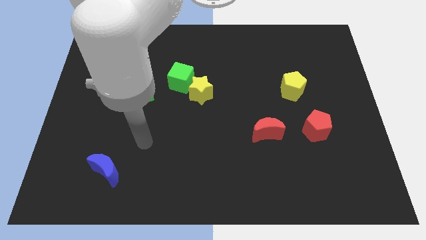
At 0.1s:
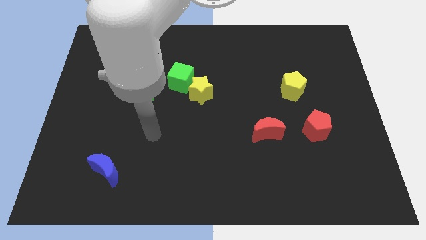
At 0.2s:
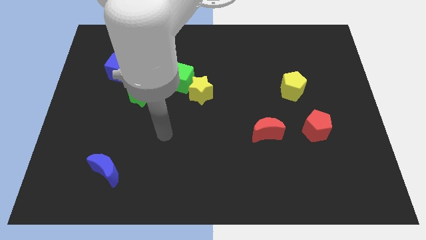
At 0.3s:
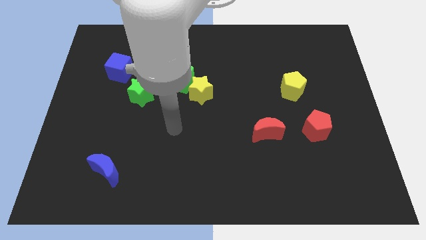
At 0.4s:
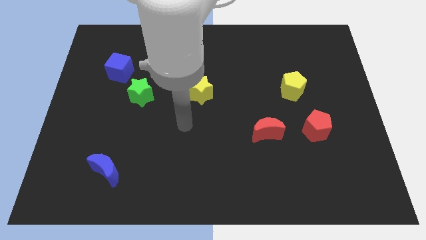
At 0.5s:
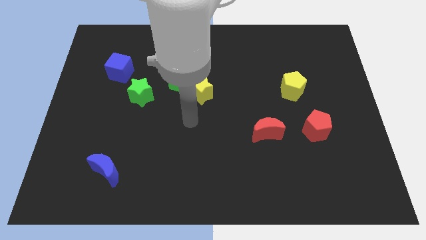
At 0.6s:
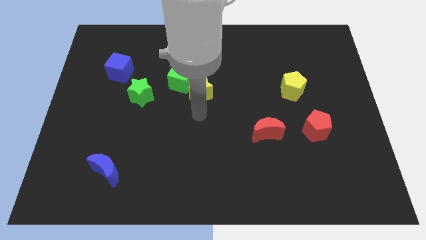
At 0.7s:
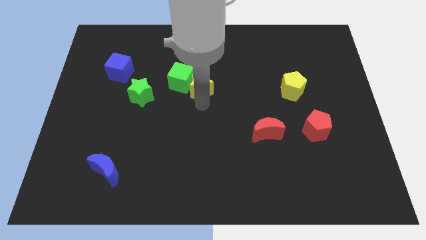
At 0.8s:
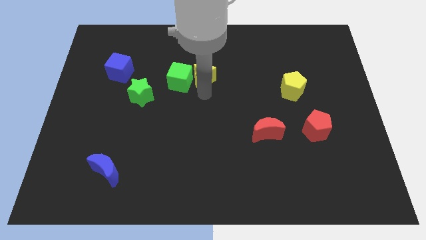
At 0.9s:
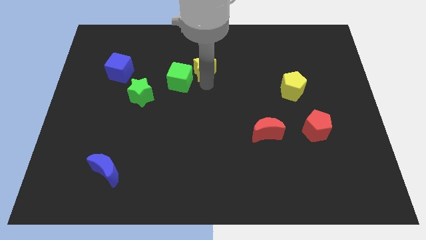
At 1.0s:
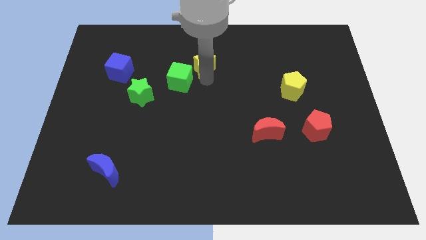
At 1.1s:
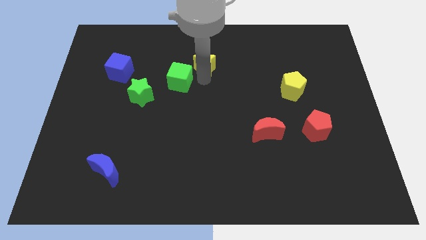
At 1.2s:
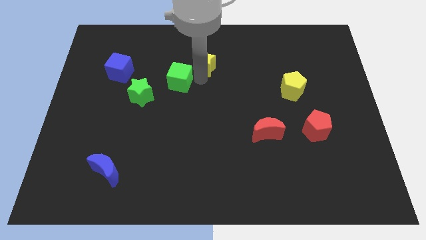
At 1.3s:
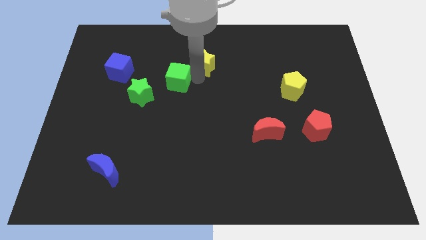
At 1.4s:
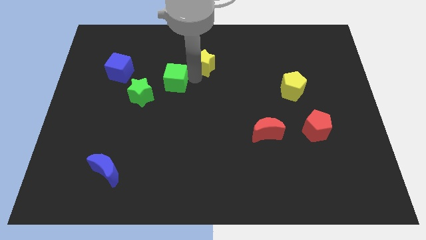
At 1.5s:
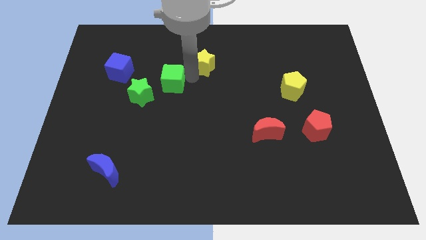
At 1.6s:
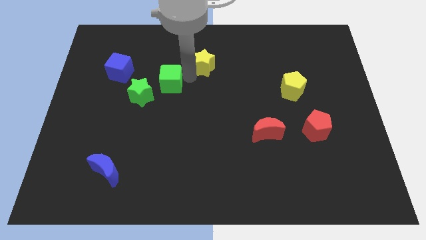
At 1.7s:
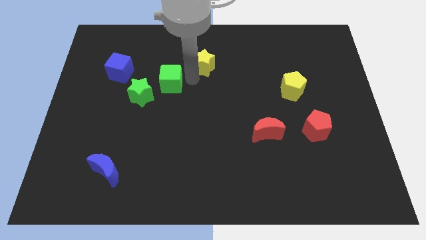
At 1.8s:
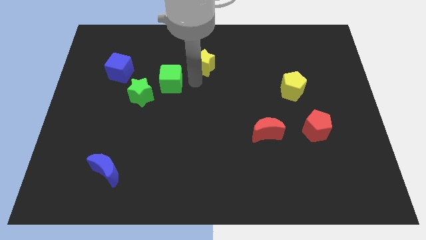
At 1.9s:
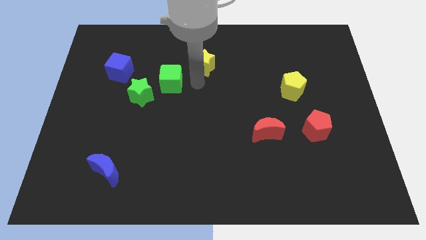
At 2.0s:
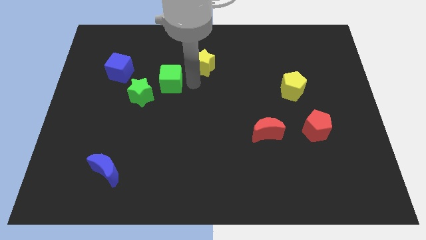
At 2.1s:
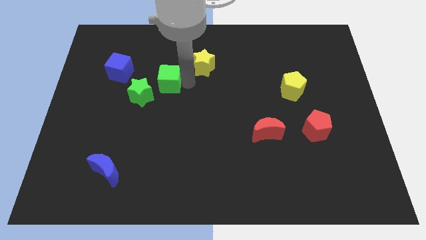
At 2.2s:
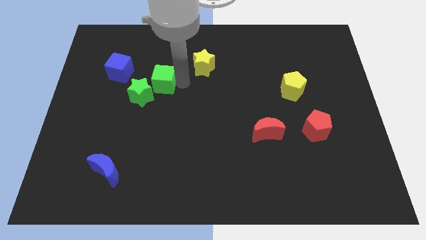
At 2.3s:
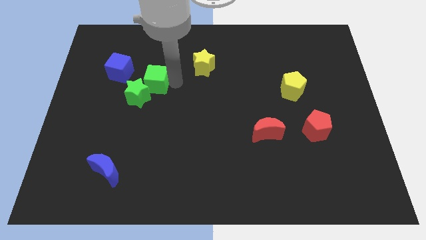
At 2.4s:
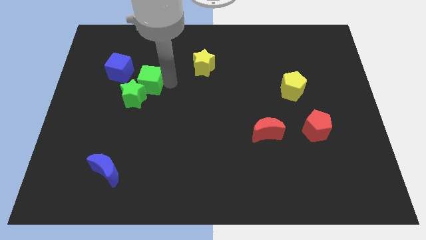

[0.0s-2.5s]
move the green cube a little bit left

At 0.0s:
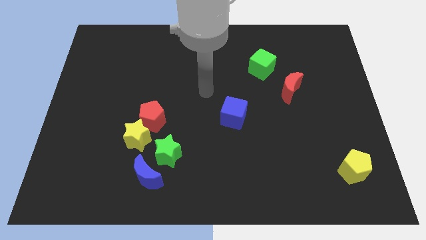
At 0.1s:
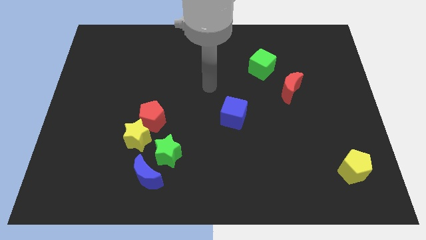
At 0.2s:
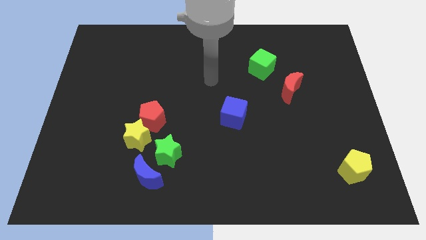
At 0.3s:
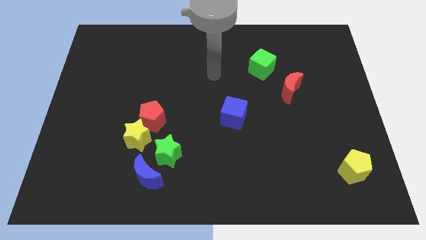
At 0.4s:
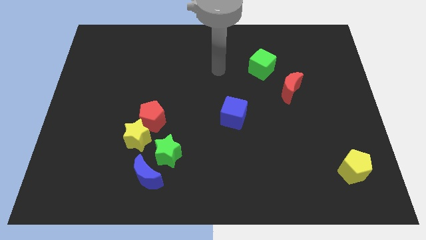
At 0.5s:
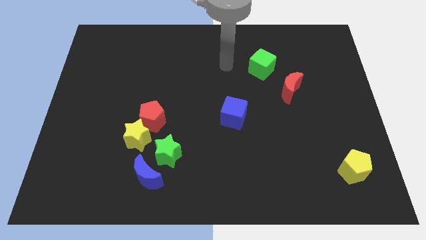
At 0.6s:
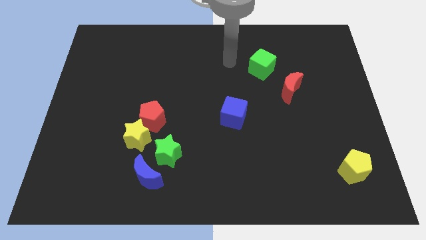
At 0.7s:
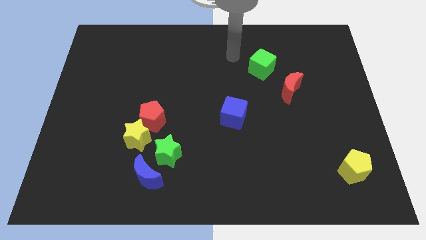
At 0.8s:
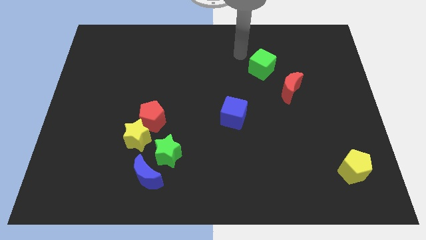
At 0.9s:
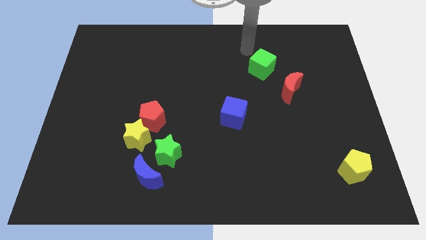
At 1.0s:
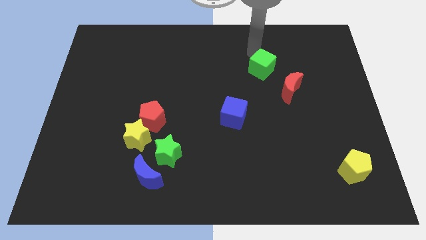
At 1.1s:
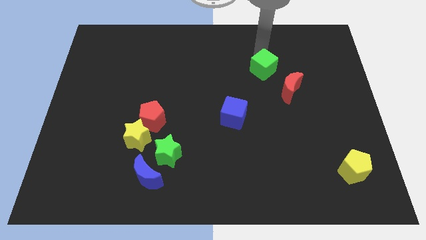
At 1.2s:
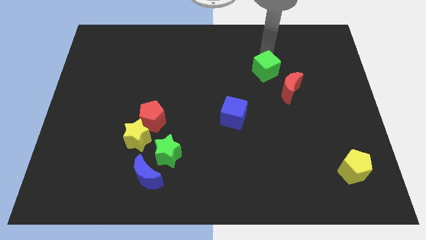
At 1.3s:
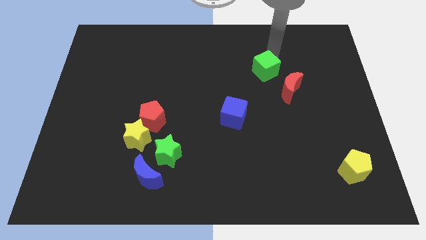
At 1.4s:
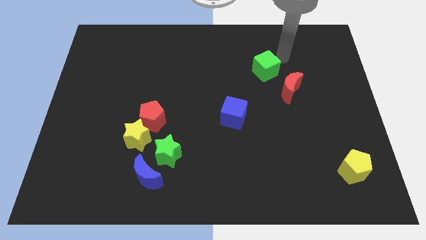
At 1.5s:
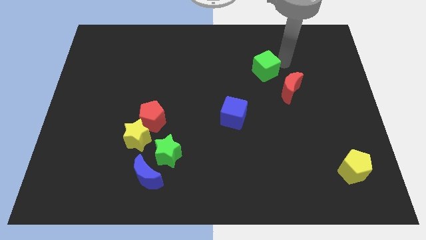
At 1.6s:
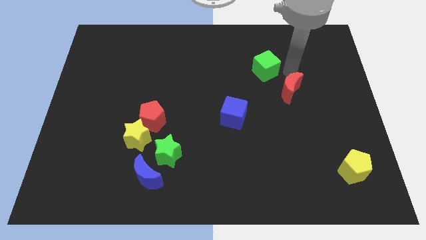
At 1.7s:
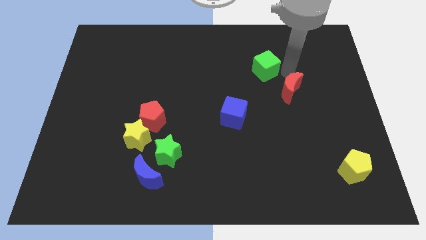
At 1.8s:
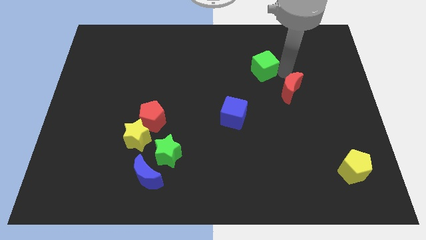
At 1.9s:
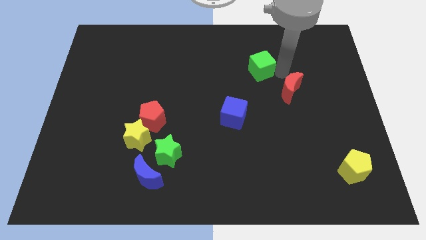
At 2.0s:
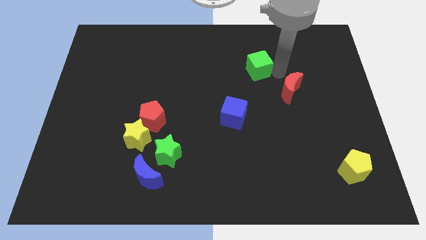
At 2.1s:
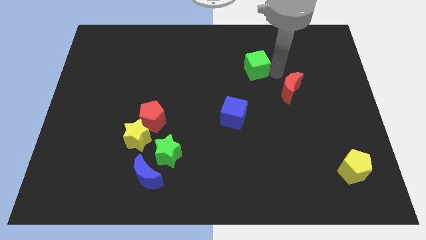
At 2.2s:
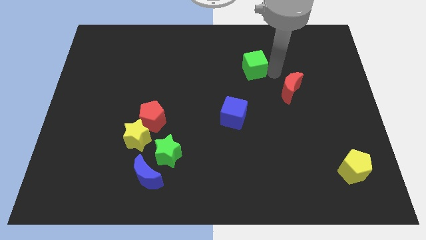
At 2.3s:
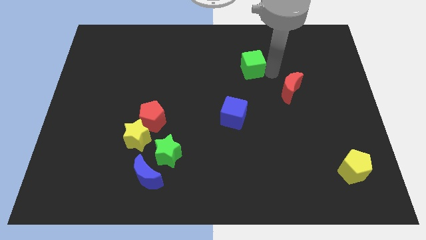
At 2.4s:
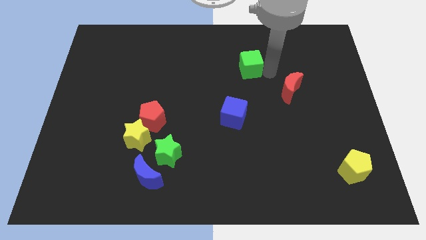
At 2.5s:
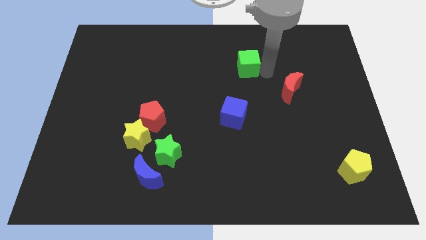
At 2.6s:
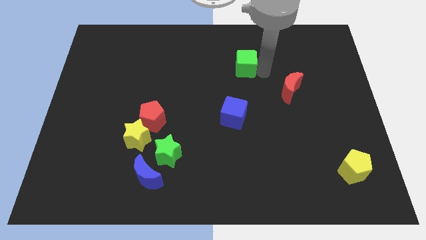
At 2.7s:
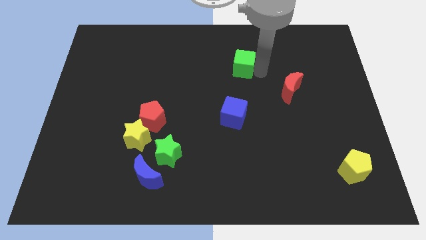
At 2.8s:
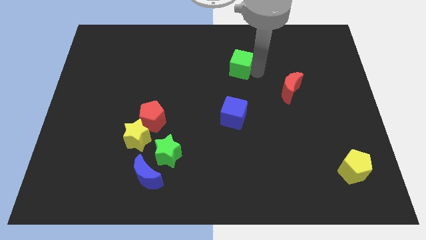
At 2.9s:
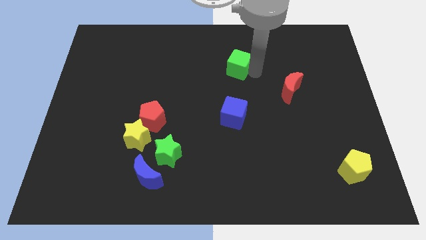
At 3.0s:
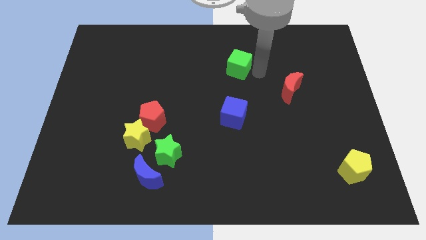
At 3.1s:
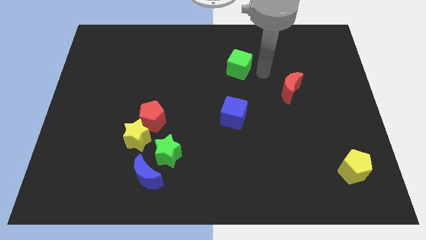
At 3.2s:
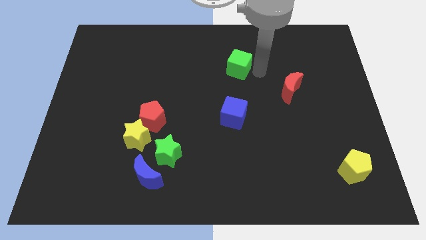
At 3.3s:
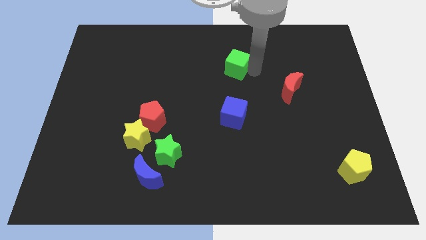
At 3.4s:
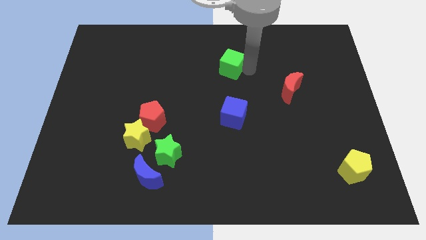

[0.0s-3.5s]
slightly slide the green cube to the left

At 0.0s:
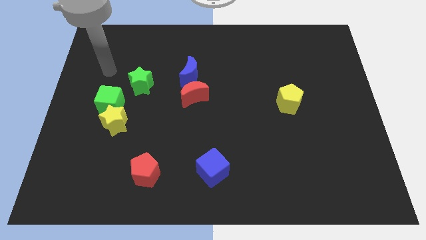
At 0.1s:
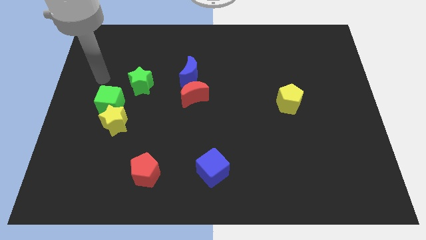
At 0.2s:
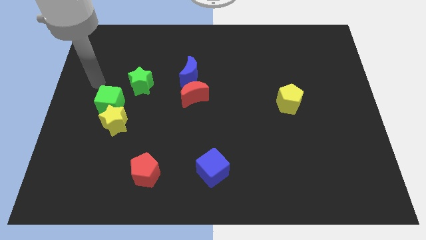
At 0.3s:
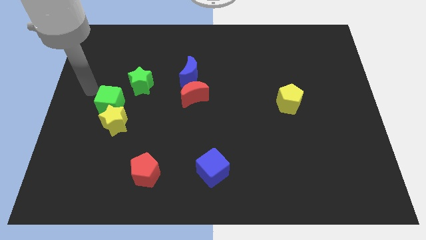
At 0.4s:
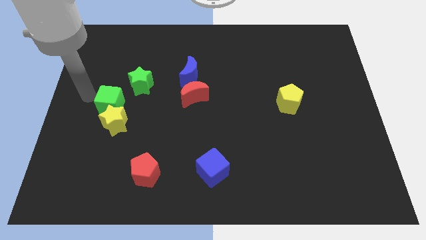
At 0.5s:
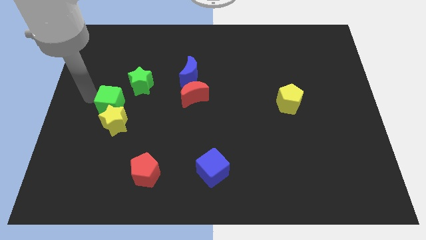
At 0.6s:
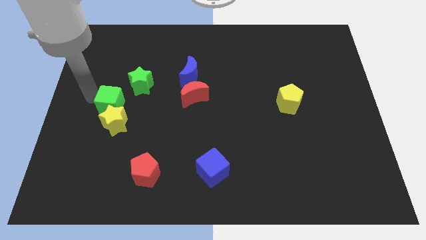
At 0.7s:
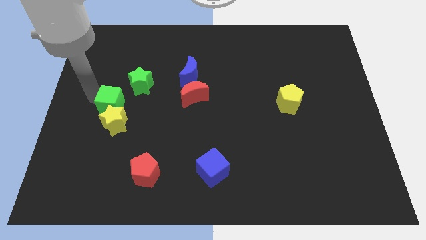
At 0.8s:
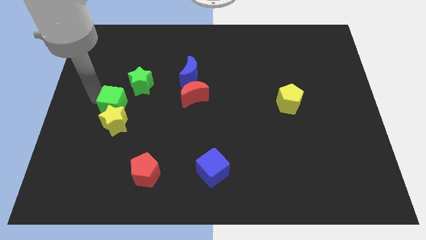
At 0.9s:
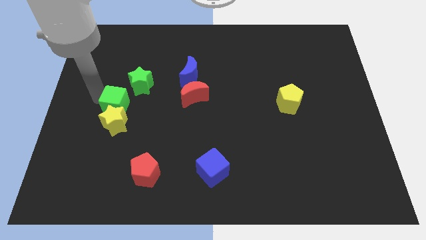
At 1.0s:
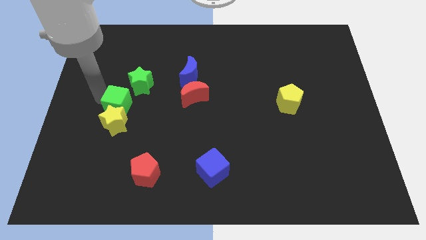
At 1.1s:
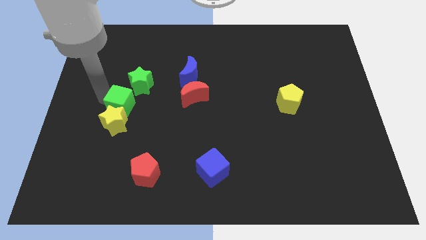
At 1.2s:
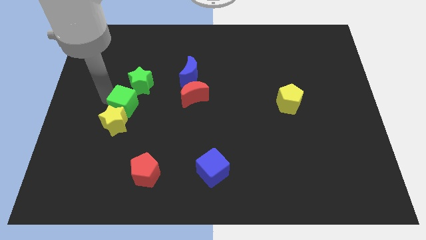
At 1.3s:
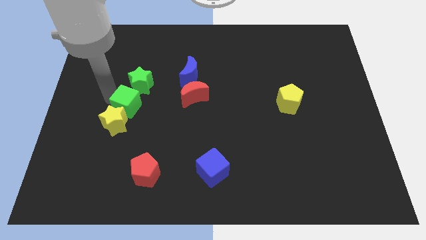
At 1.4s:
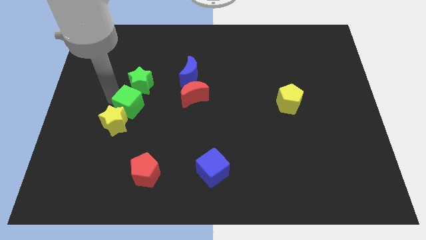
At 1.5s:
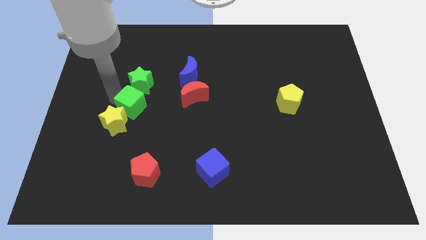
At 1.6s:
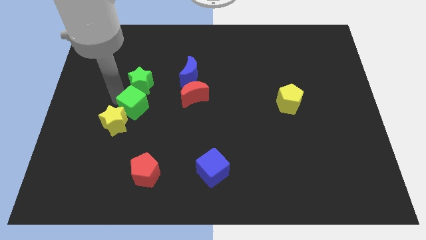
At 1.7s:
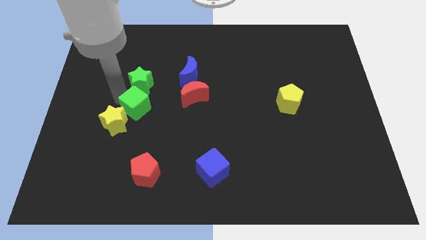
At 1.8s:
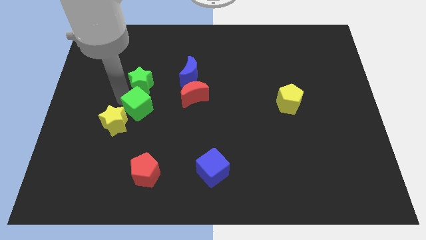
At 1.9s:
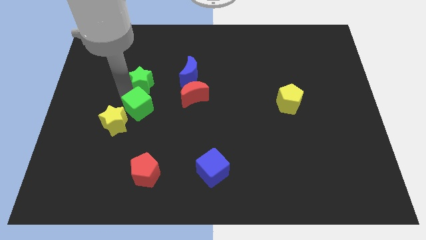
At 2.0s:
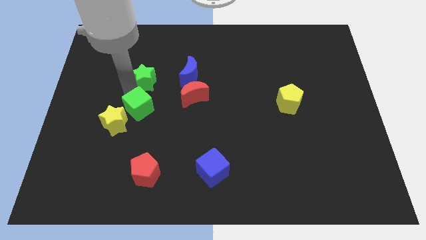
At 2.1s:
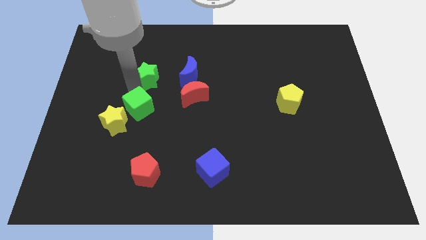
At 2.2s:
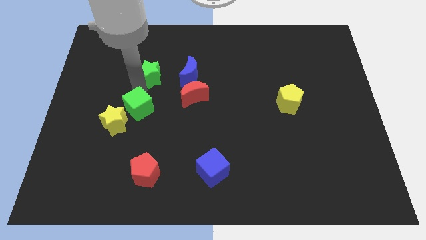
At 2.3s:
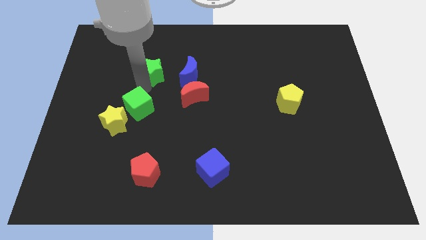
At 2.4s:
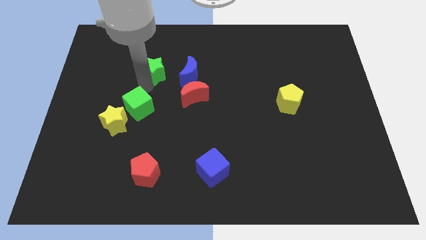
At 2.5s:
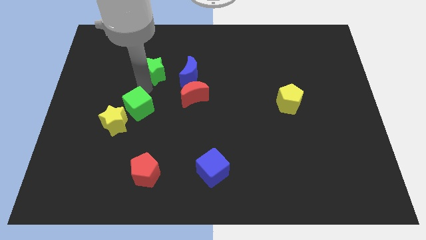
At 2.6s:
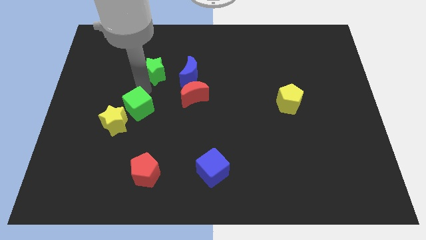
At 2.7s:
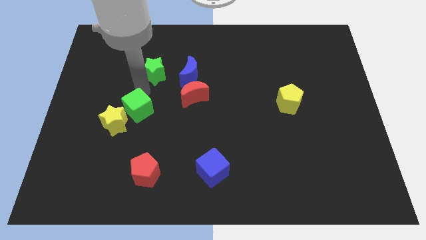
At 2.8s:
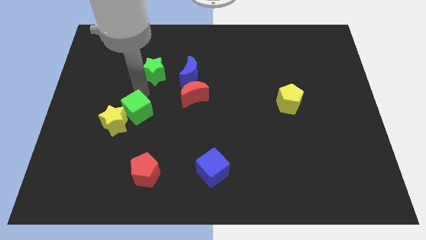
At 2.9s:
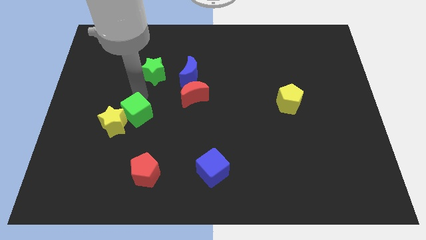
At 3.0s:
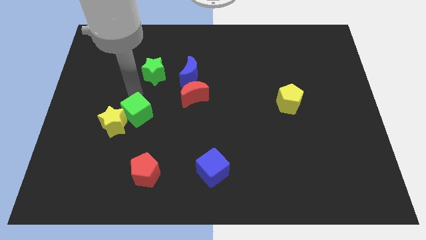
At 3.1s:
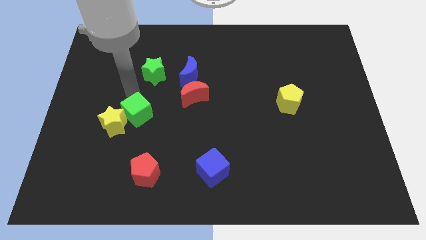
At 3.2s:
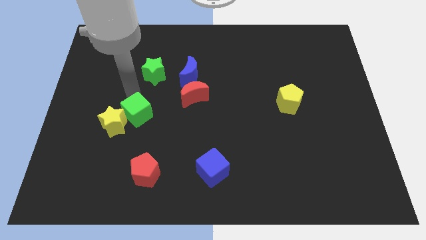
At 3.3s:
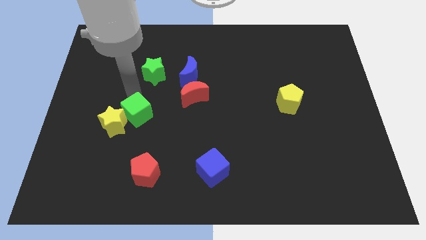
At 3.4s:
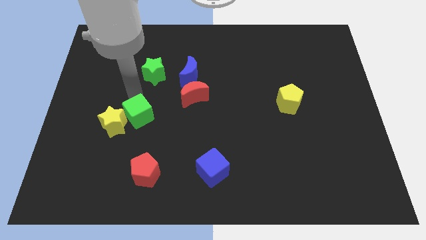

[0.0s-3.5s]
push the green cube downwards and then right a little
